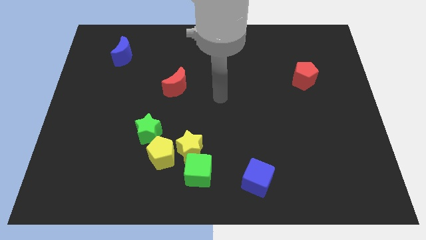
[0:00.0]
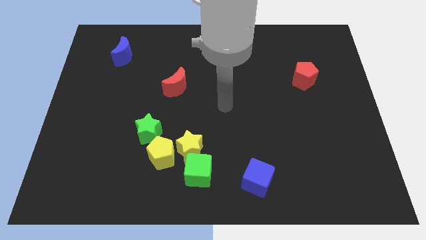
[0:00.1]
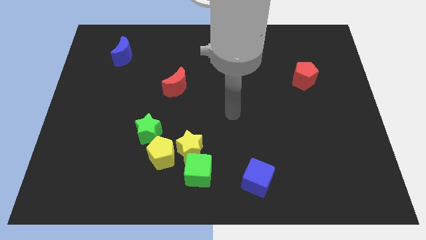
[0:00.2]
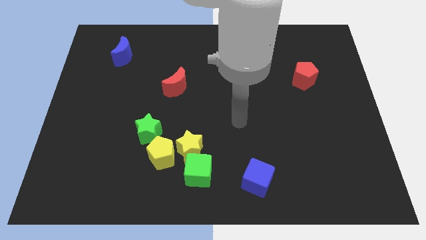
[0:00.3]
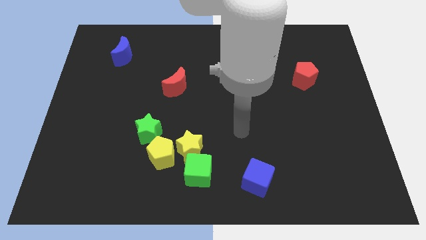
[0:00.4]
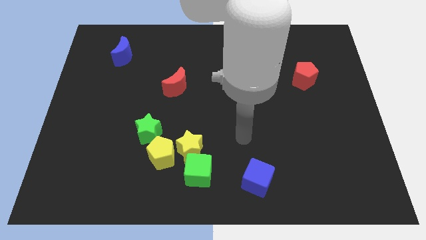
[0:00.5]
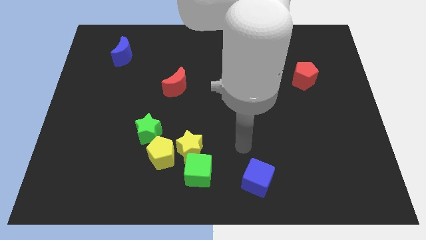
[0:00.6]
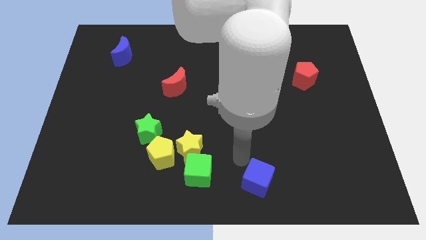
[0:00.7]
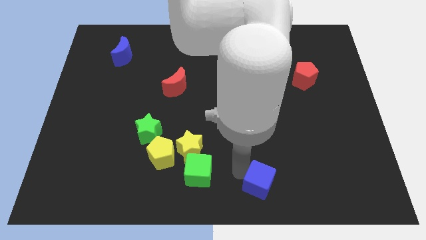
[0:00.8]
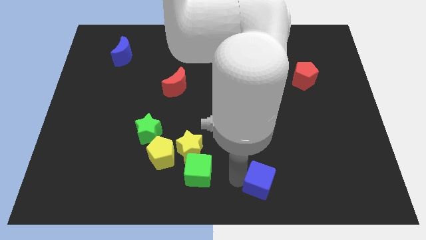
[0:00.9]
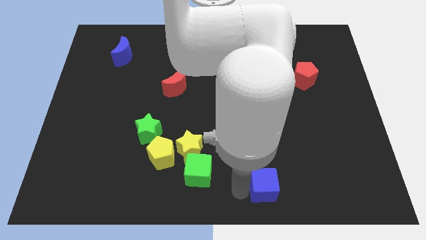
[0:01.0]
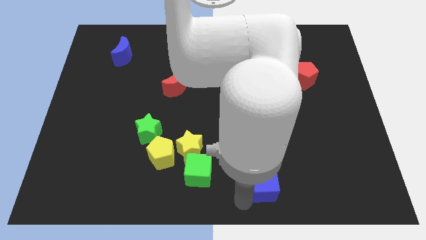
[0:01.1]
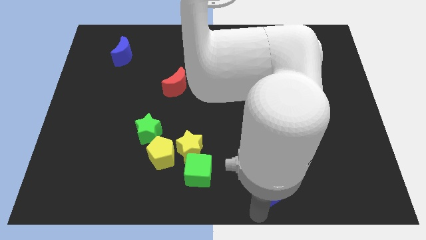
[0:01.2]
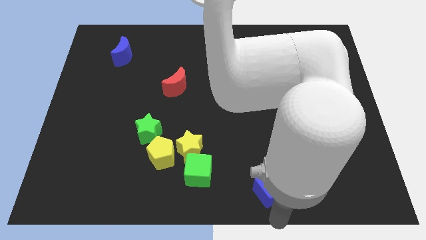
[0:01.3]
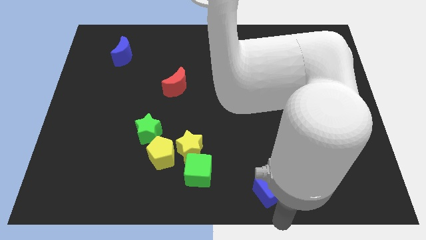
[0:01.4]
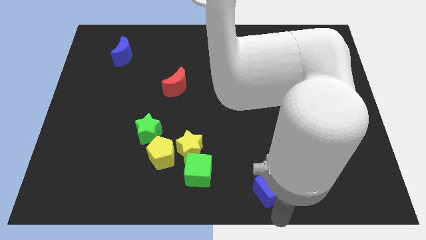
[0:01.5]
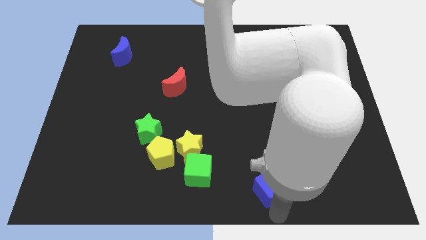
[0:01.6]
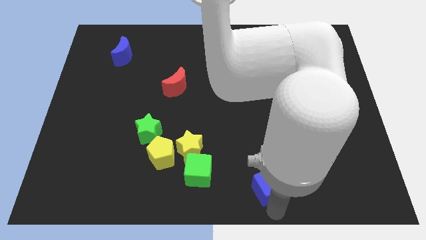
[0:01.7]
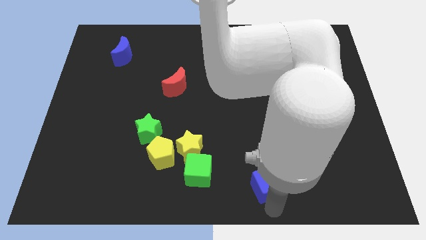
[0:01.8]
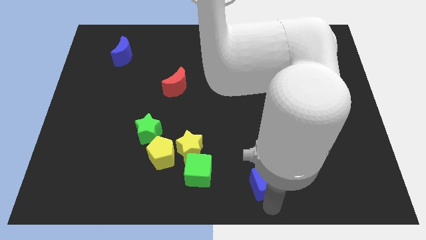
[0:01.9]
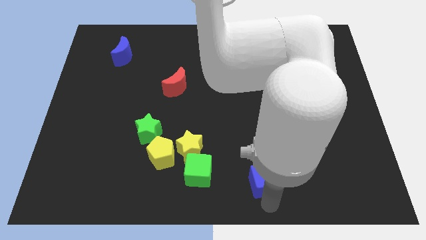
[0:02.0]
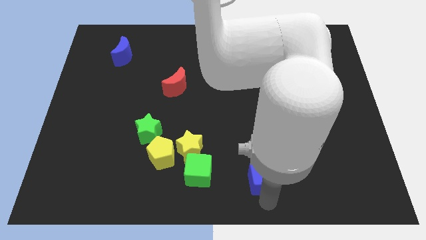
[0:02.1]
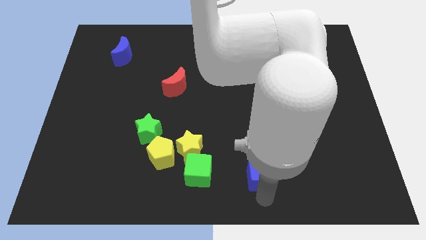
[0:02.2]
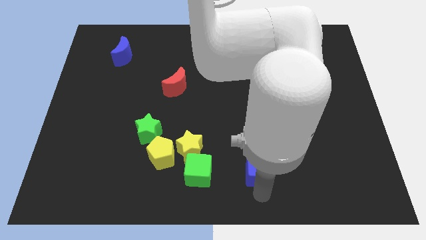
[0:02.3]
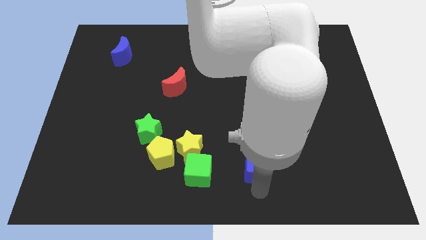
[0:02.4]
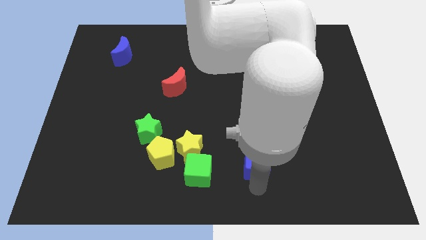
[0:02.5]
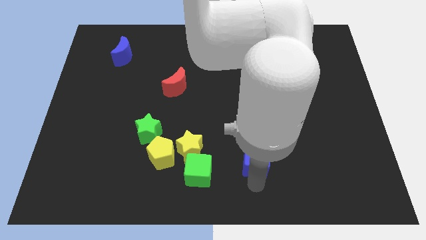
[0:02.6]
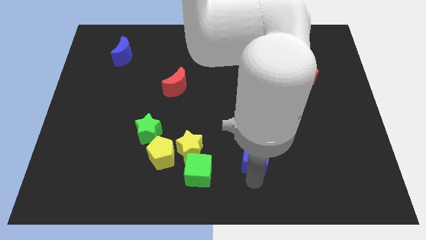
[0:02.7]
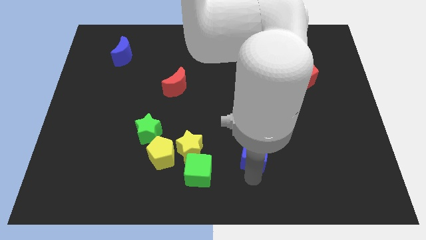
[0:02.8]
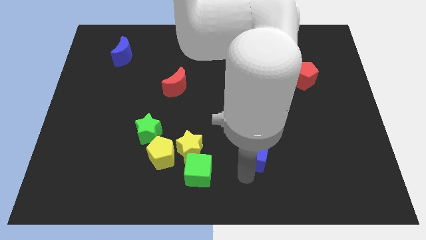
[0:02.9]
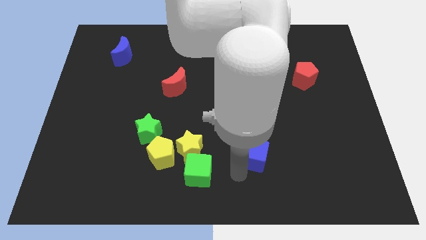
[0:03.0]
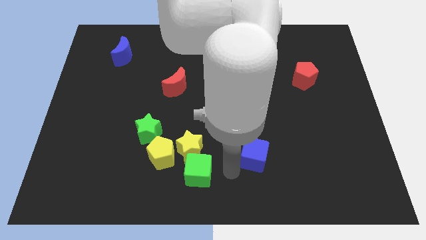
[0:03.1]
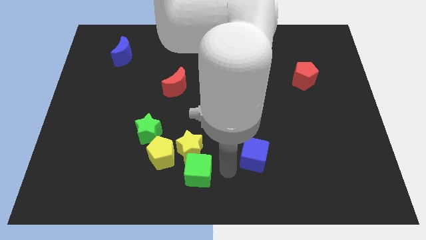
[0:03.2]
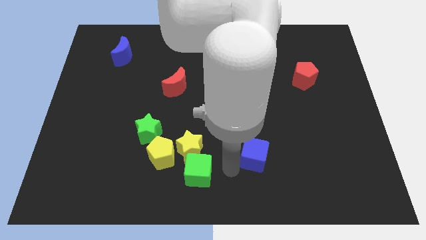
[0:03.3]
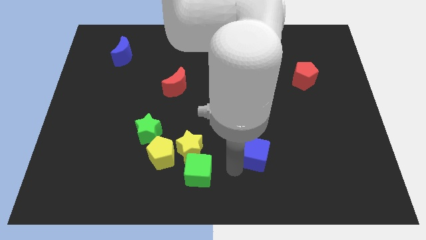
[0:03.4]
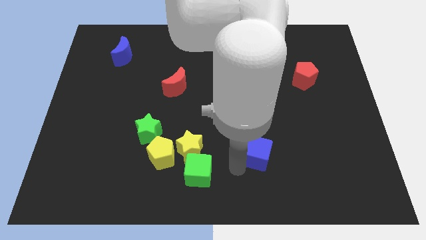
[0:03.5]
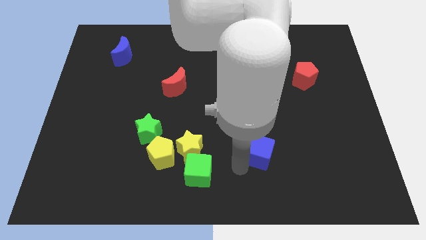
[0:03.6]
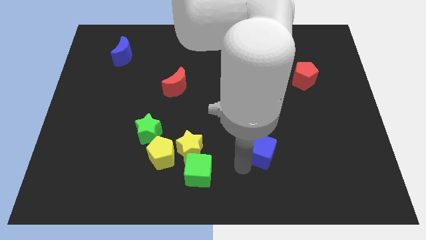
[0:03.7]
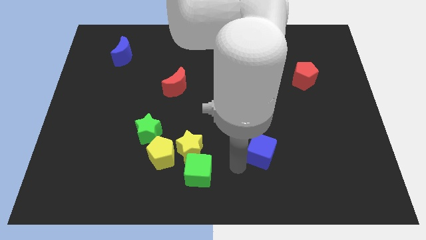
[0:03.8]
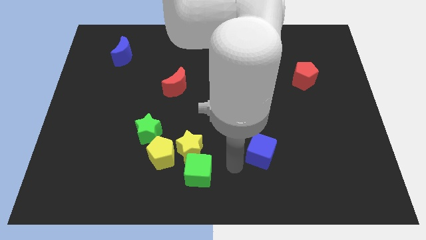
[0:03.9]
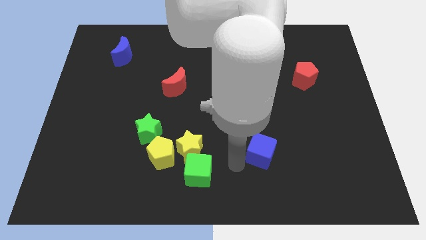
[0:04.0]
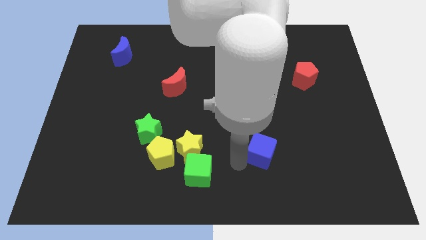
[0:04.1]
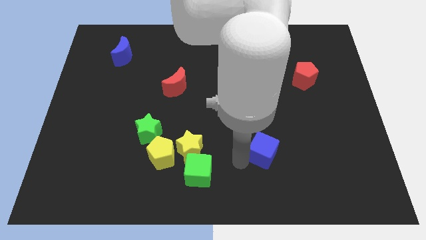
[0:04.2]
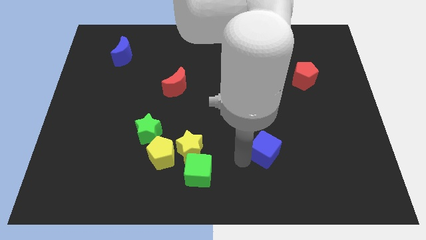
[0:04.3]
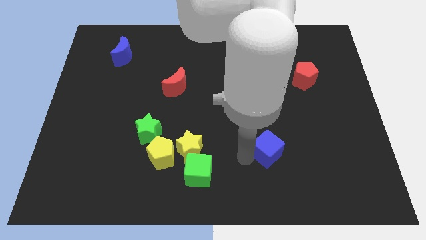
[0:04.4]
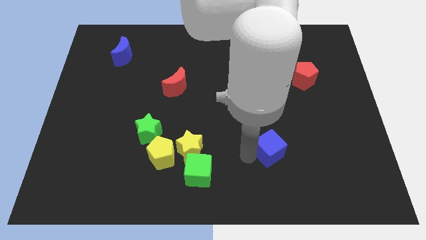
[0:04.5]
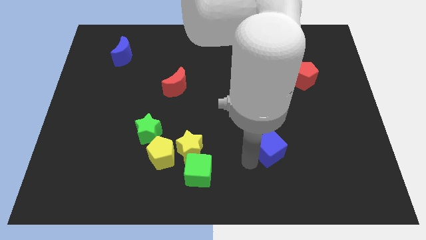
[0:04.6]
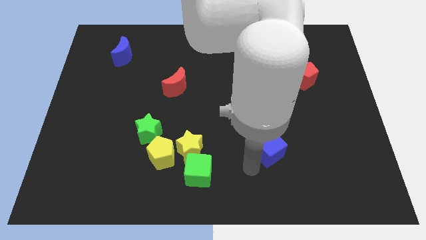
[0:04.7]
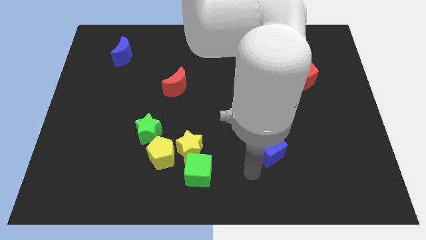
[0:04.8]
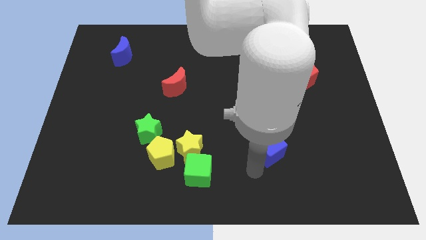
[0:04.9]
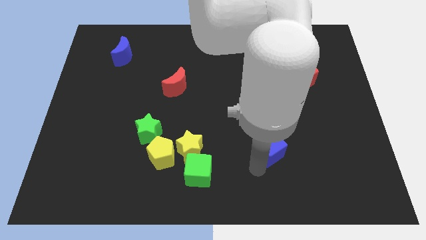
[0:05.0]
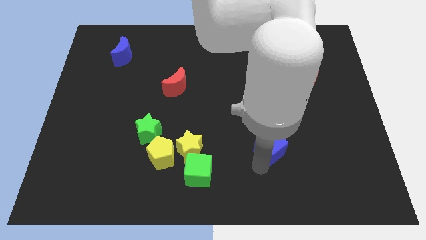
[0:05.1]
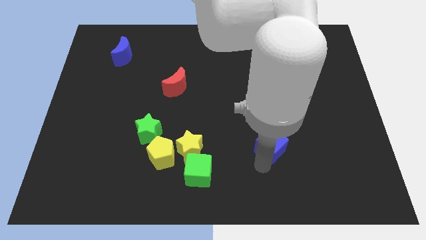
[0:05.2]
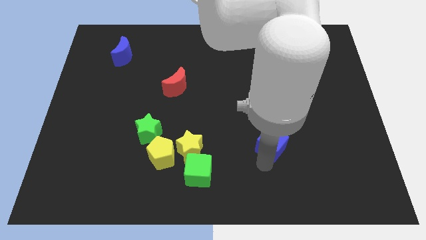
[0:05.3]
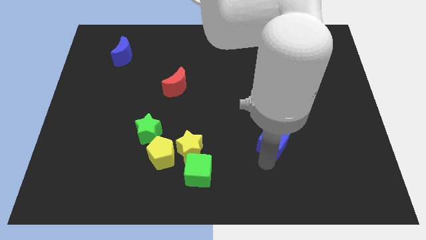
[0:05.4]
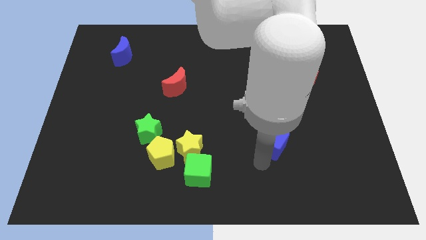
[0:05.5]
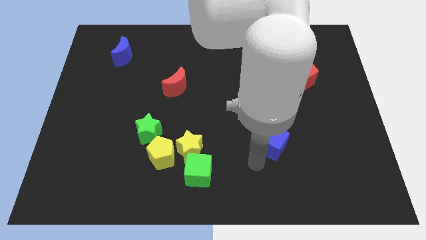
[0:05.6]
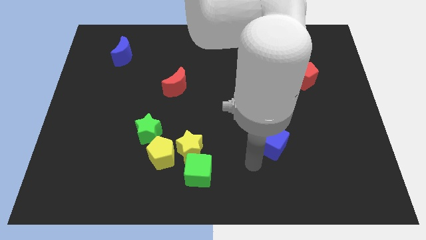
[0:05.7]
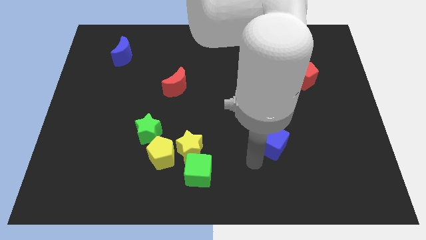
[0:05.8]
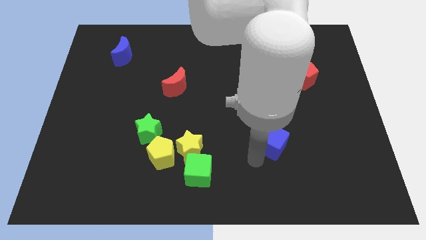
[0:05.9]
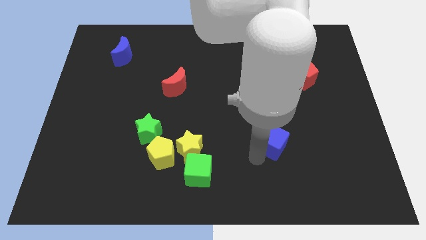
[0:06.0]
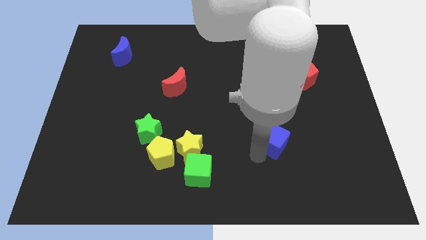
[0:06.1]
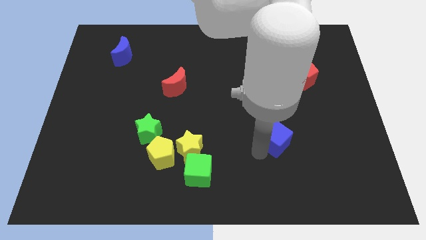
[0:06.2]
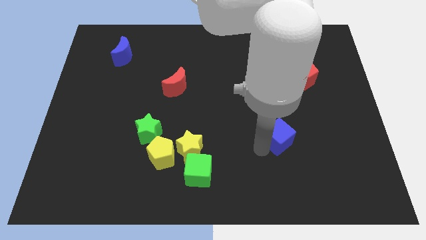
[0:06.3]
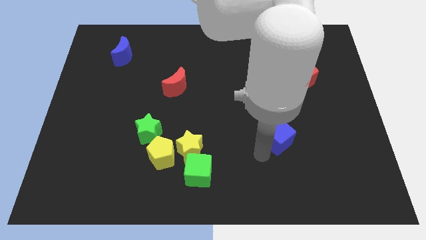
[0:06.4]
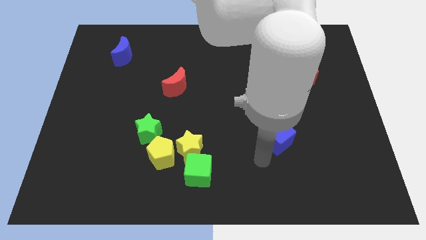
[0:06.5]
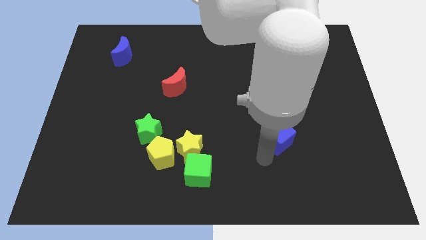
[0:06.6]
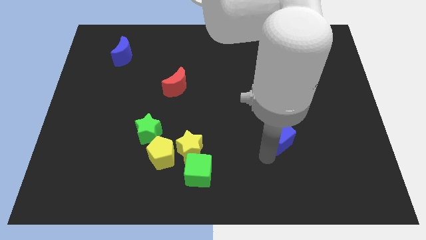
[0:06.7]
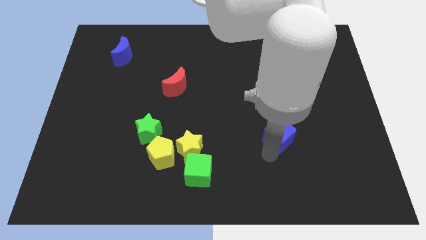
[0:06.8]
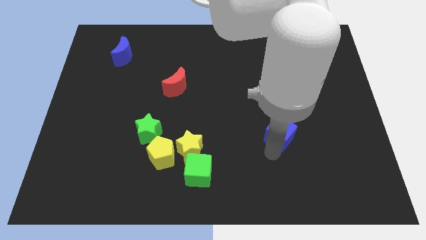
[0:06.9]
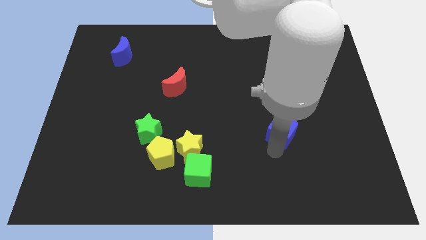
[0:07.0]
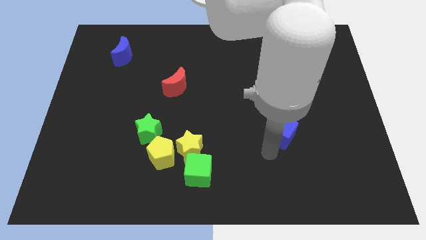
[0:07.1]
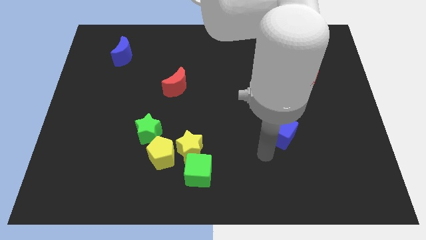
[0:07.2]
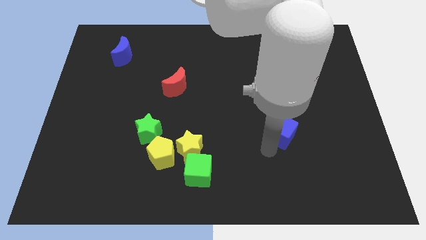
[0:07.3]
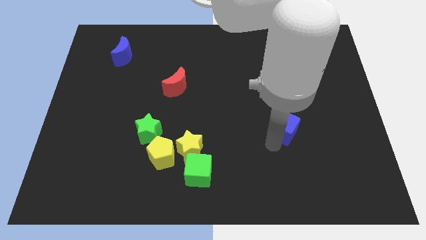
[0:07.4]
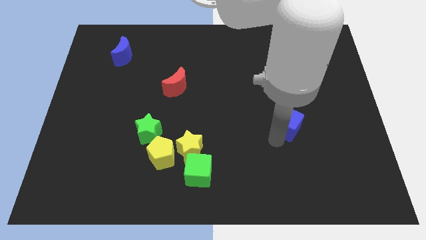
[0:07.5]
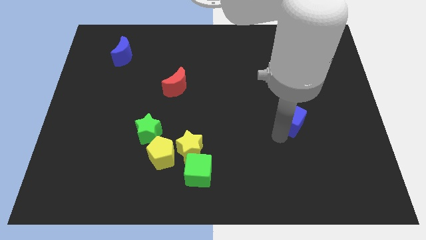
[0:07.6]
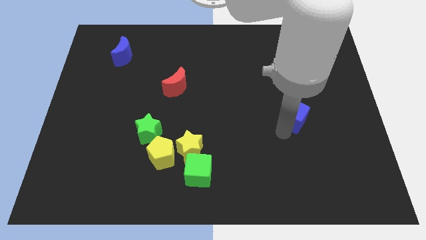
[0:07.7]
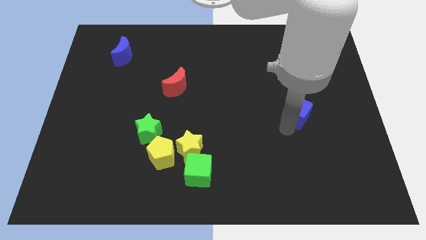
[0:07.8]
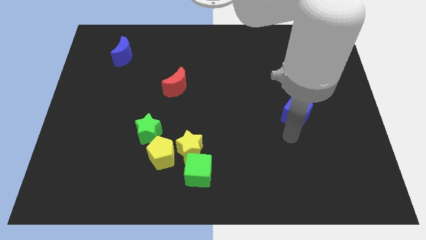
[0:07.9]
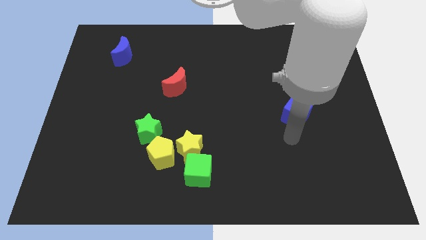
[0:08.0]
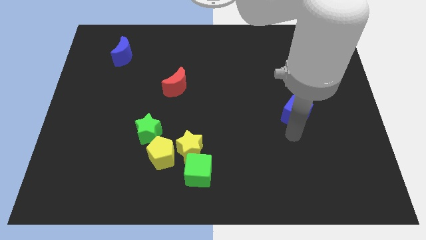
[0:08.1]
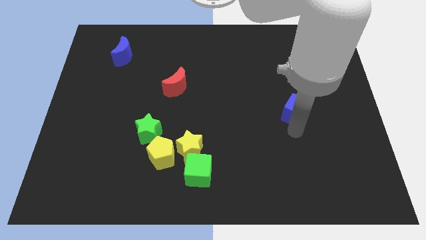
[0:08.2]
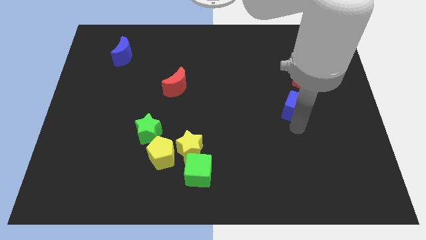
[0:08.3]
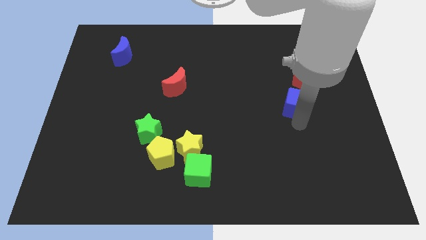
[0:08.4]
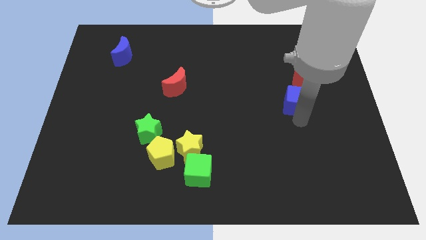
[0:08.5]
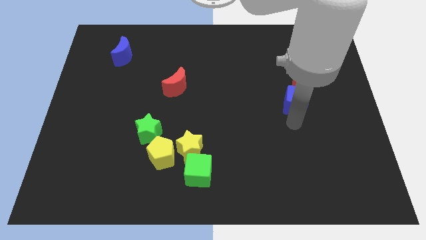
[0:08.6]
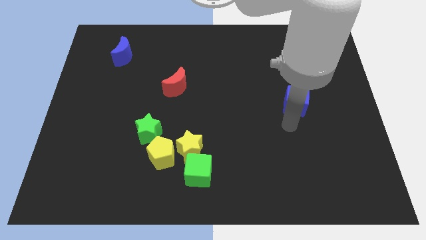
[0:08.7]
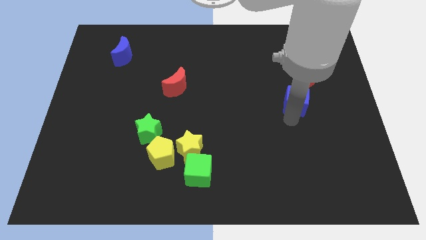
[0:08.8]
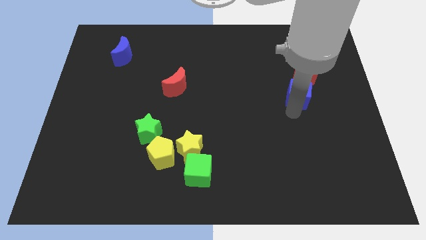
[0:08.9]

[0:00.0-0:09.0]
move the blue cube next to the red pentagon
